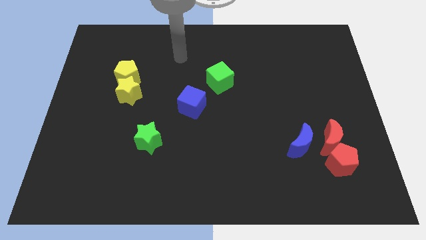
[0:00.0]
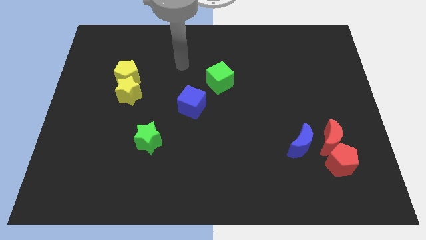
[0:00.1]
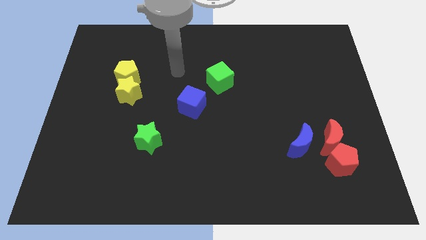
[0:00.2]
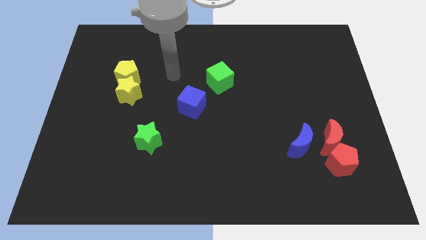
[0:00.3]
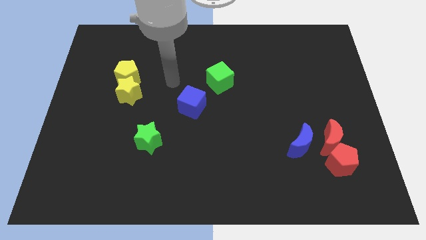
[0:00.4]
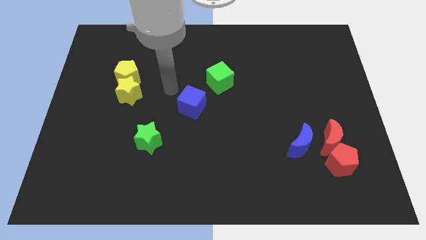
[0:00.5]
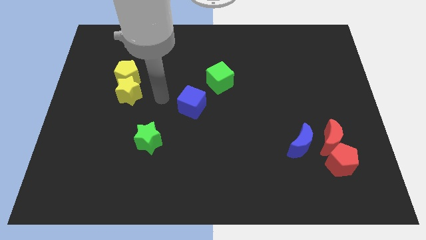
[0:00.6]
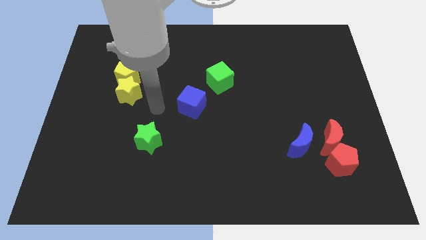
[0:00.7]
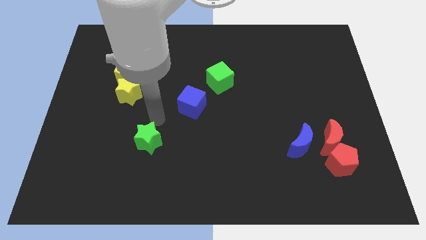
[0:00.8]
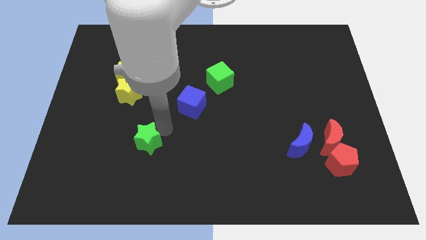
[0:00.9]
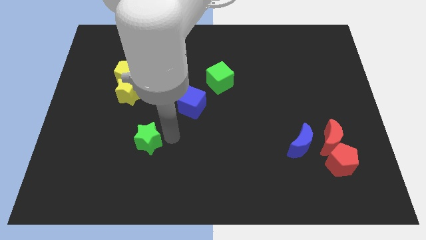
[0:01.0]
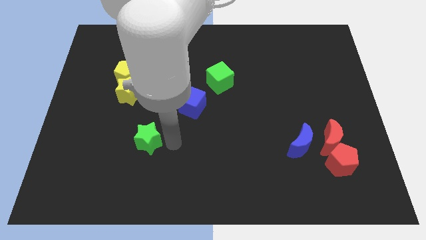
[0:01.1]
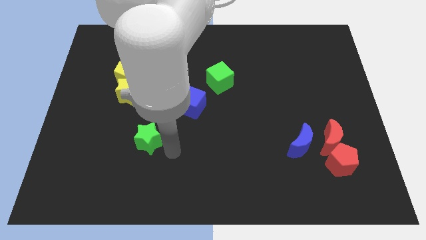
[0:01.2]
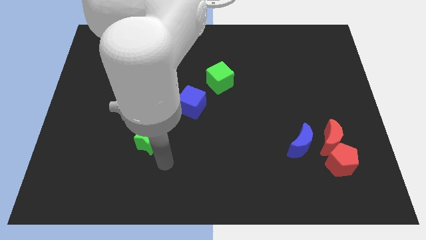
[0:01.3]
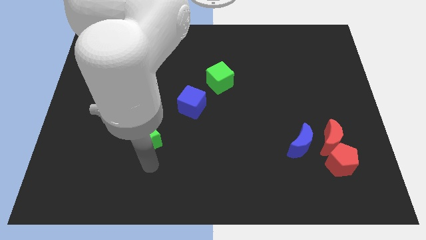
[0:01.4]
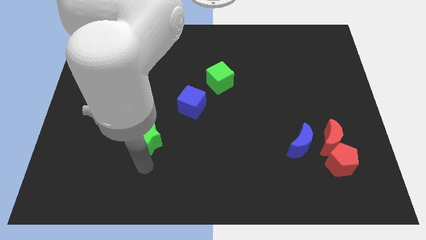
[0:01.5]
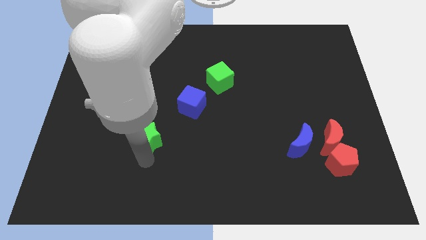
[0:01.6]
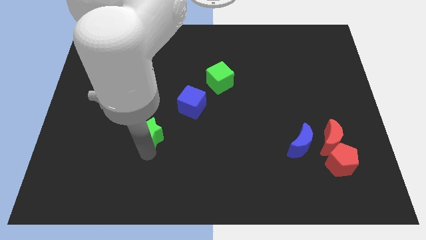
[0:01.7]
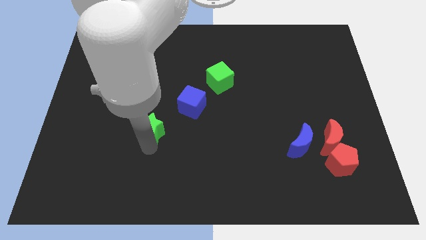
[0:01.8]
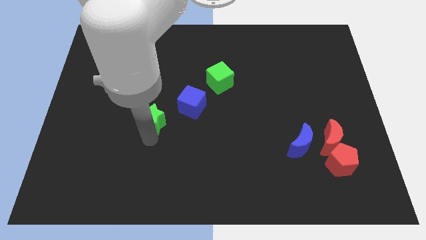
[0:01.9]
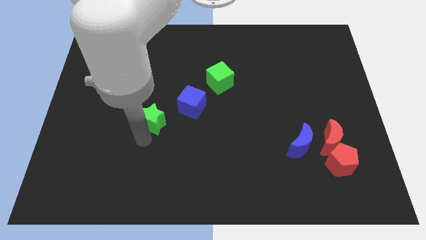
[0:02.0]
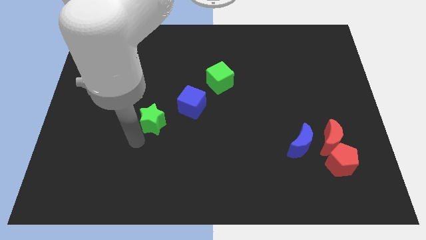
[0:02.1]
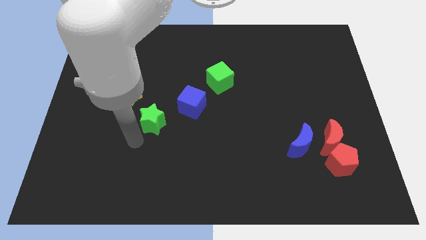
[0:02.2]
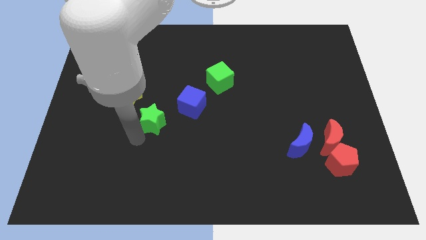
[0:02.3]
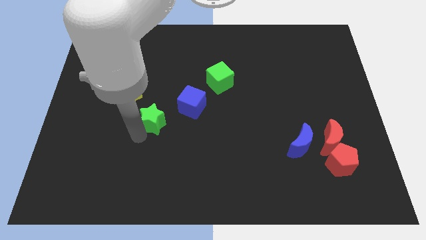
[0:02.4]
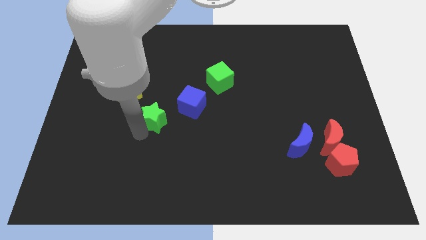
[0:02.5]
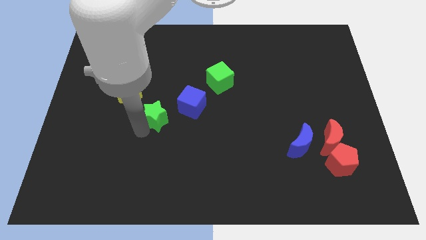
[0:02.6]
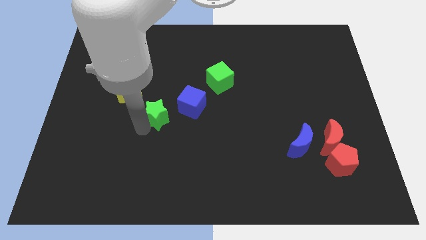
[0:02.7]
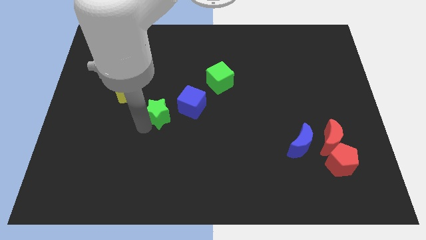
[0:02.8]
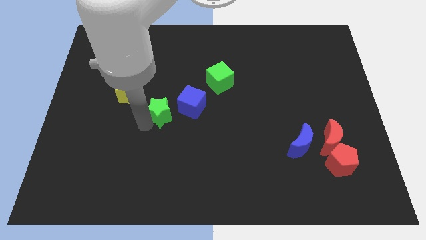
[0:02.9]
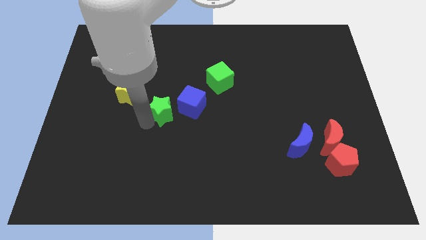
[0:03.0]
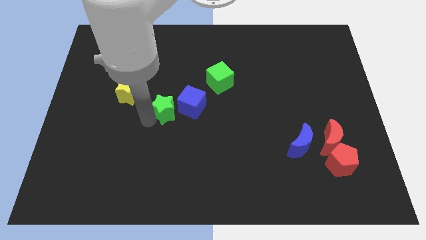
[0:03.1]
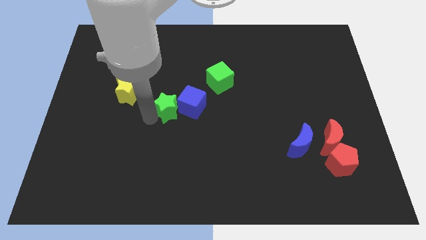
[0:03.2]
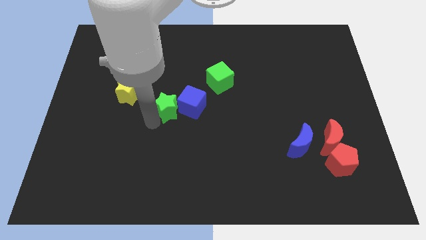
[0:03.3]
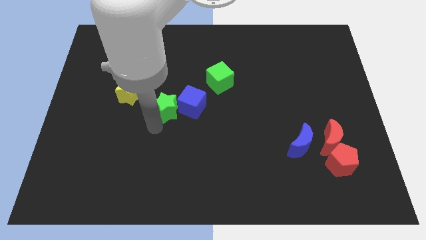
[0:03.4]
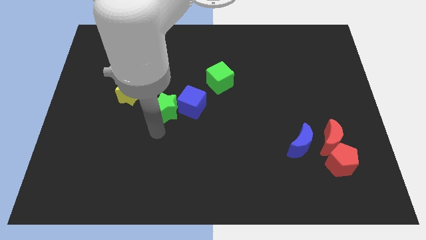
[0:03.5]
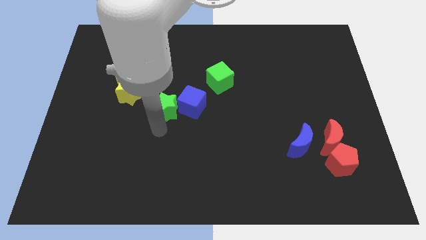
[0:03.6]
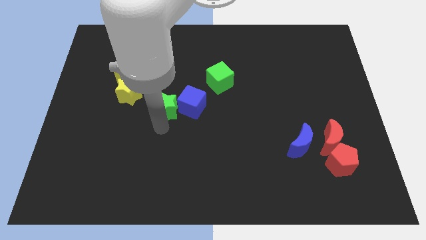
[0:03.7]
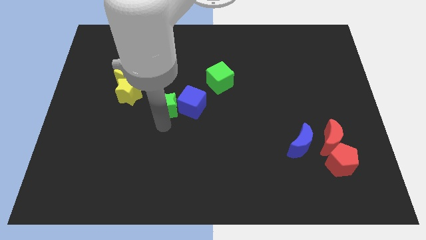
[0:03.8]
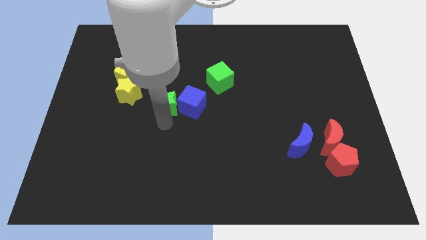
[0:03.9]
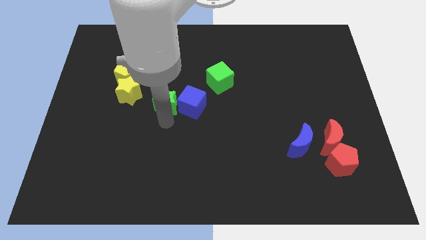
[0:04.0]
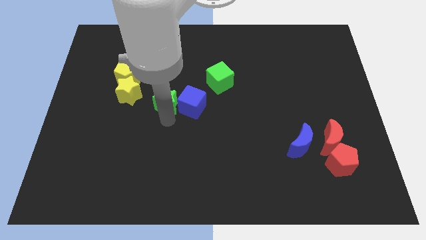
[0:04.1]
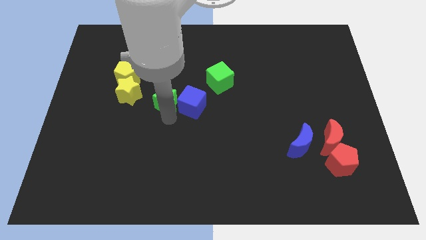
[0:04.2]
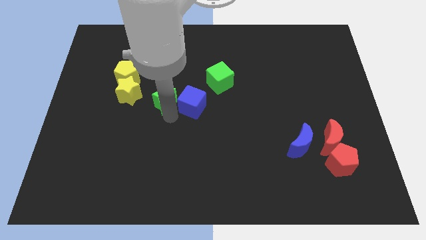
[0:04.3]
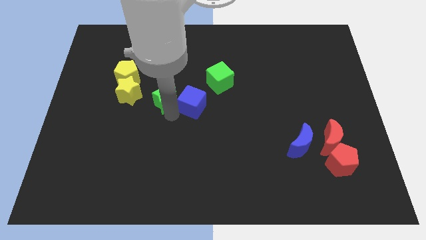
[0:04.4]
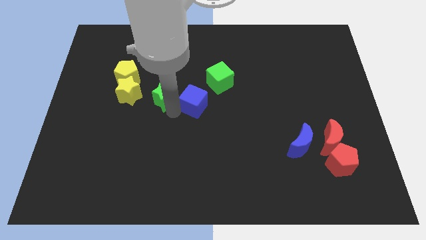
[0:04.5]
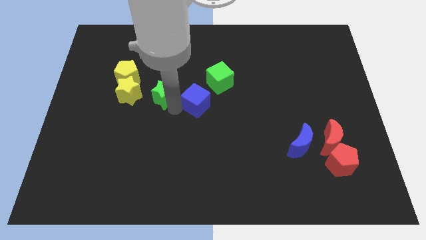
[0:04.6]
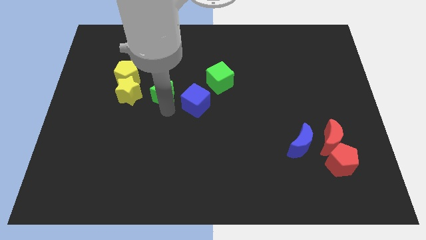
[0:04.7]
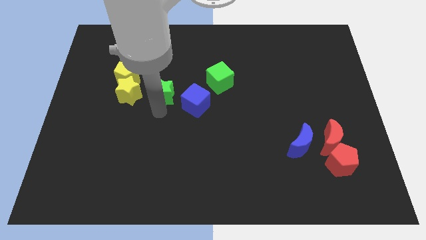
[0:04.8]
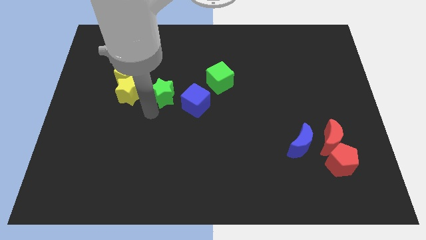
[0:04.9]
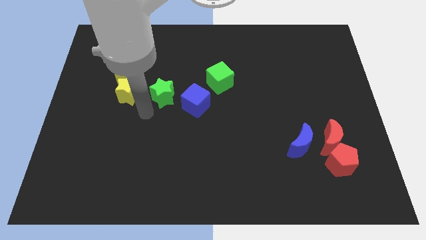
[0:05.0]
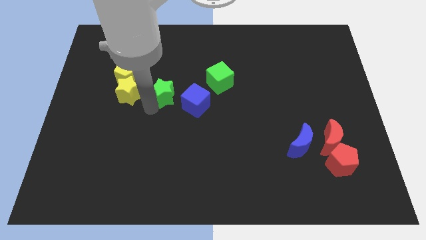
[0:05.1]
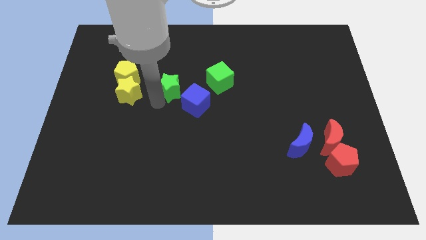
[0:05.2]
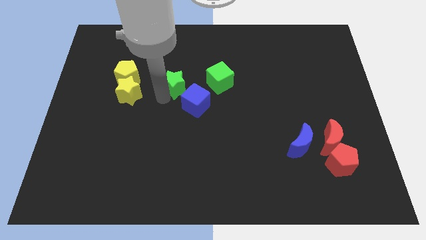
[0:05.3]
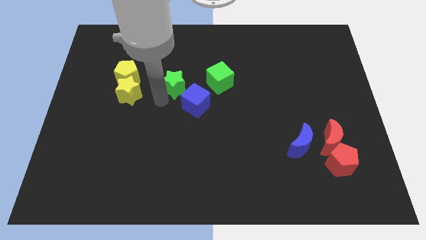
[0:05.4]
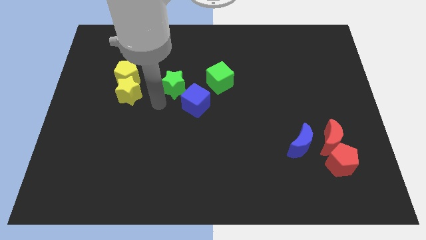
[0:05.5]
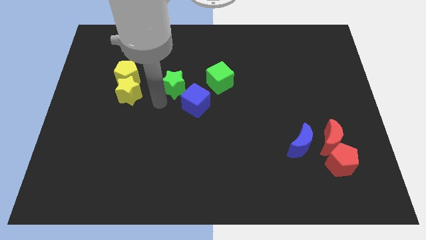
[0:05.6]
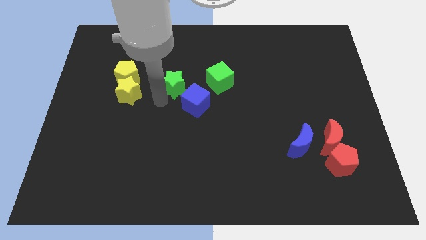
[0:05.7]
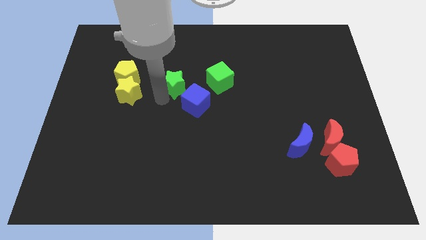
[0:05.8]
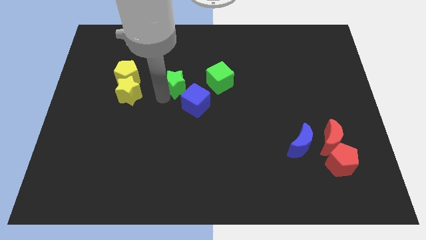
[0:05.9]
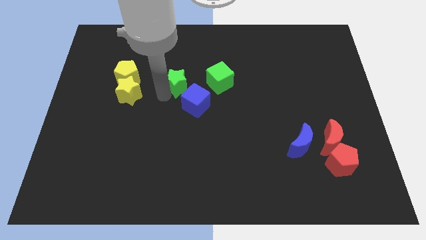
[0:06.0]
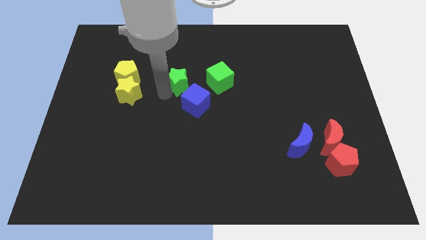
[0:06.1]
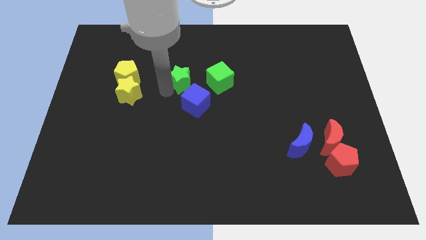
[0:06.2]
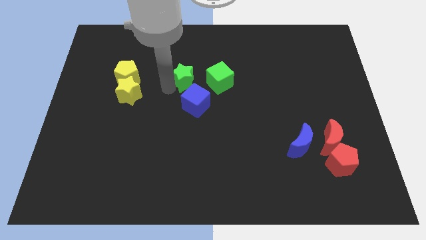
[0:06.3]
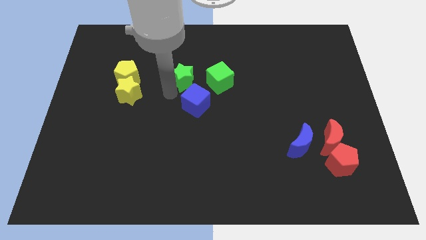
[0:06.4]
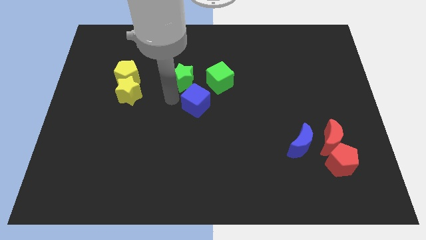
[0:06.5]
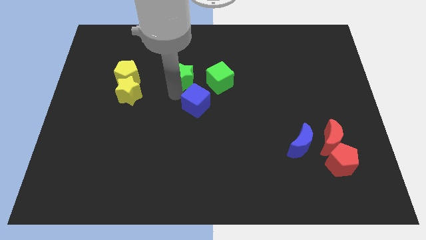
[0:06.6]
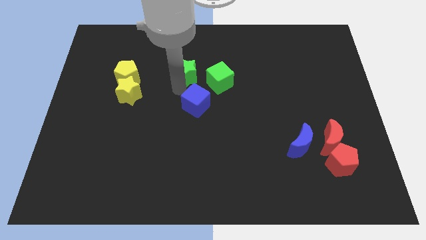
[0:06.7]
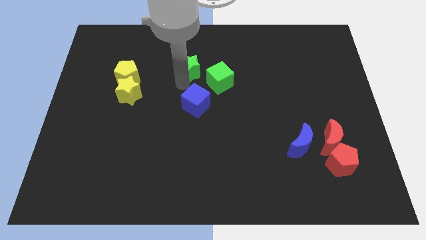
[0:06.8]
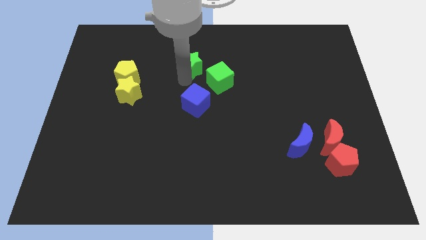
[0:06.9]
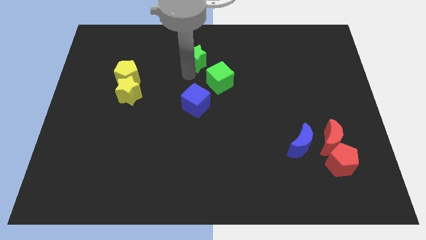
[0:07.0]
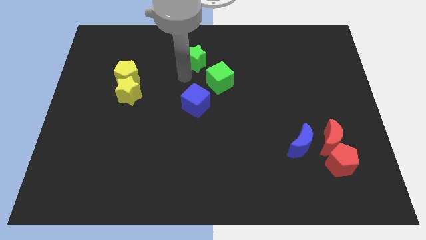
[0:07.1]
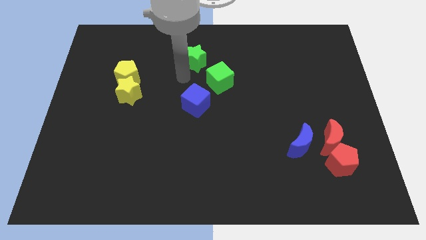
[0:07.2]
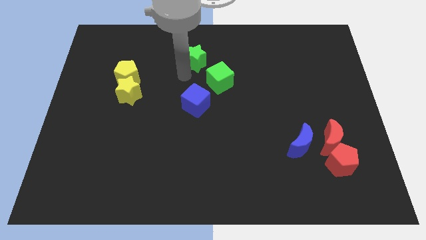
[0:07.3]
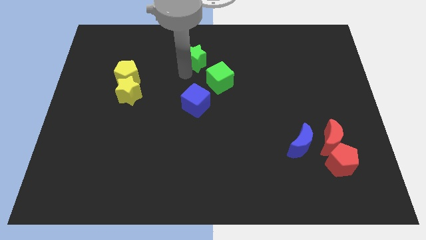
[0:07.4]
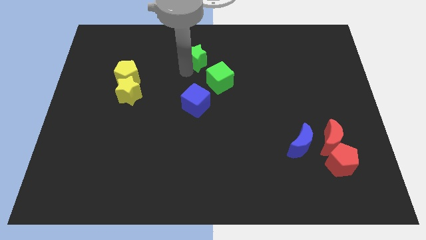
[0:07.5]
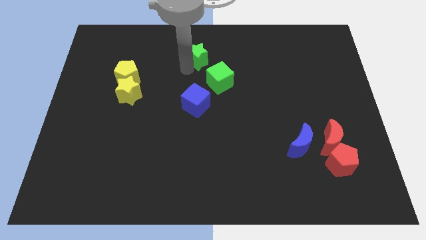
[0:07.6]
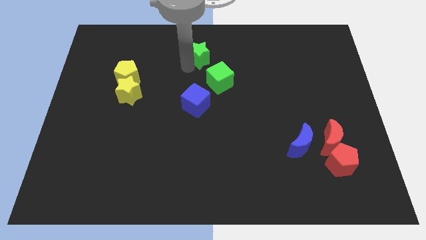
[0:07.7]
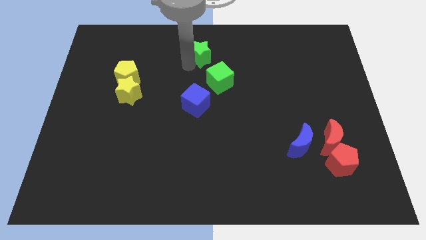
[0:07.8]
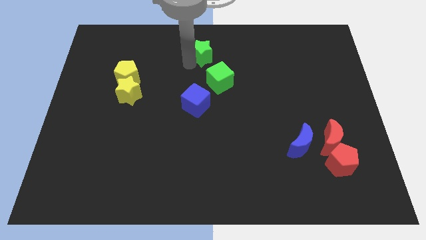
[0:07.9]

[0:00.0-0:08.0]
slide the green star to the top
